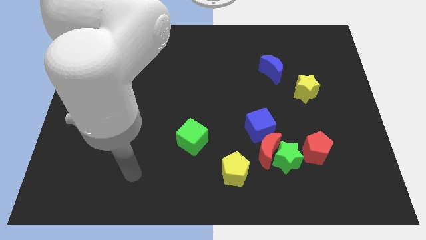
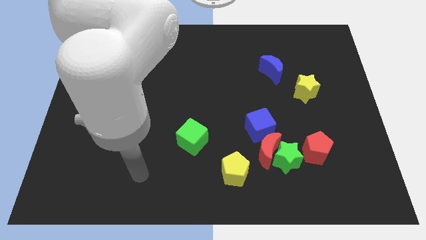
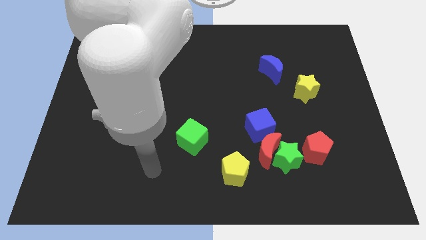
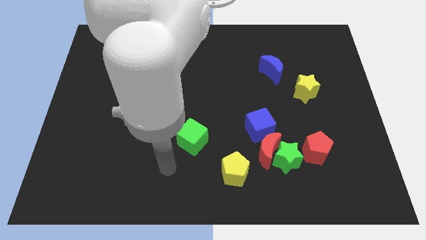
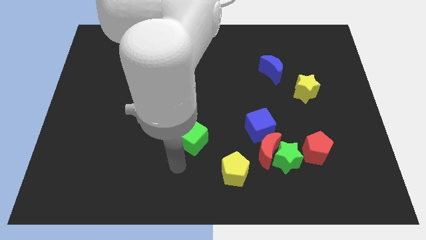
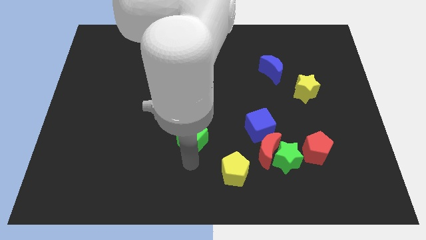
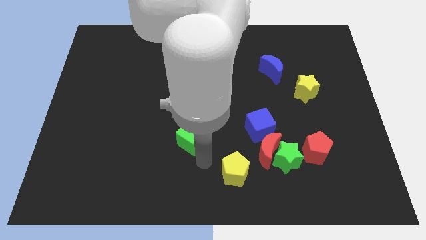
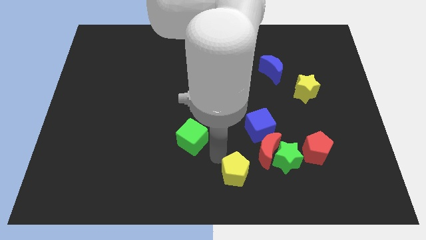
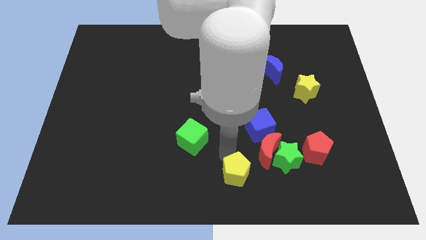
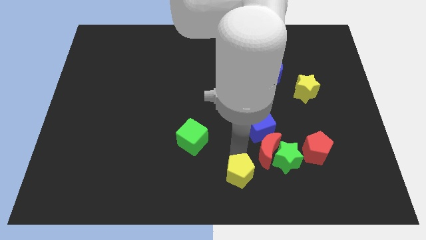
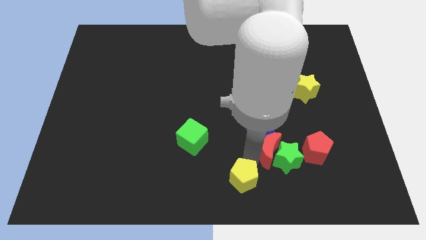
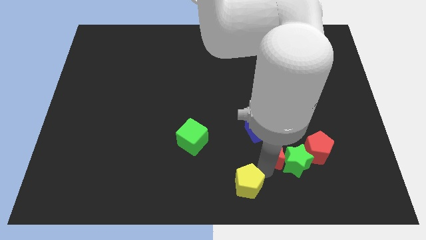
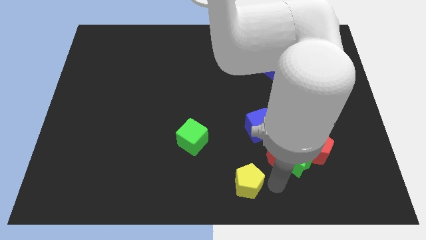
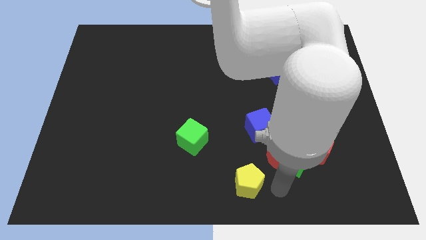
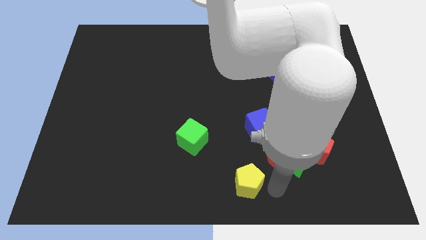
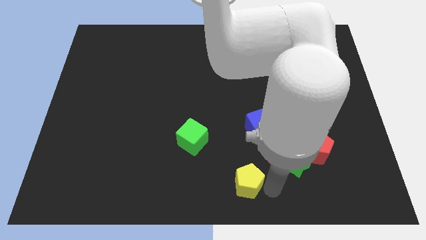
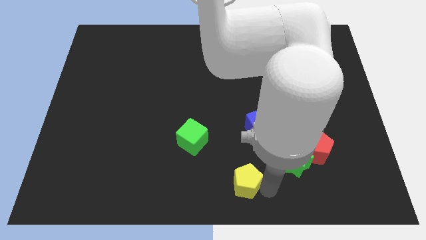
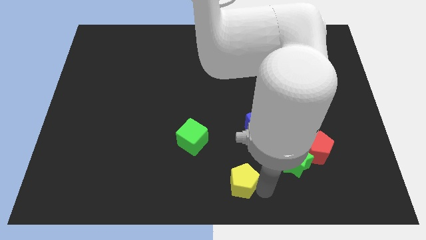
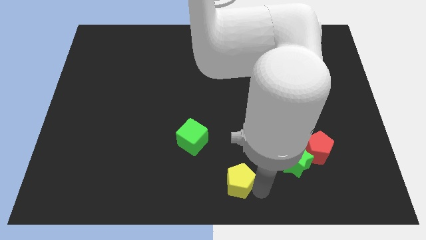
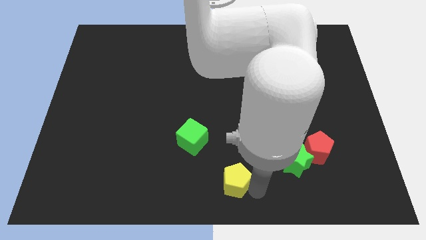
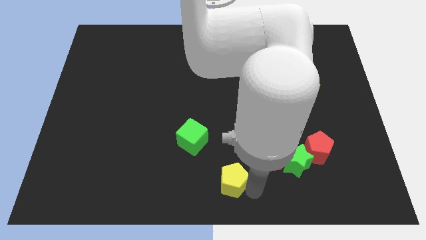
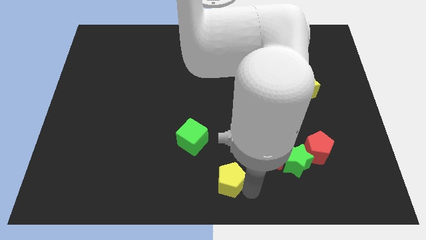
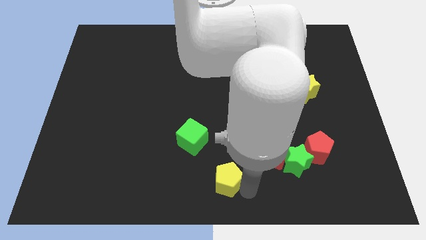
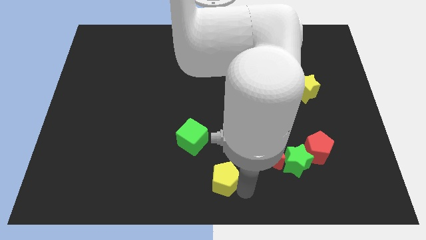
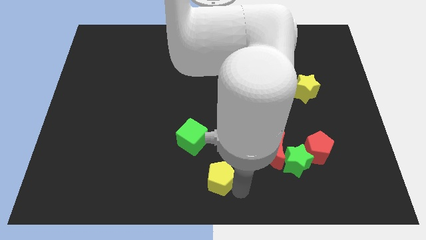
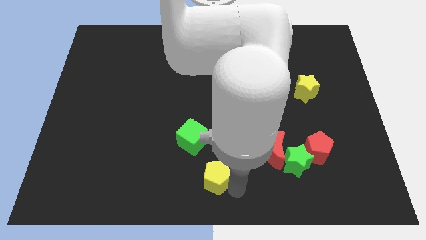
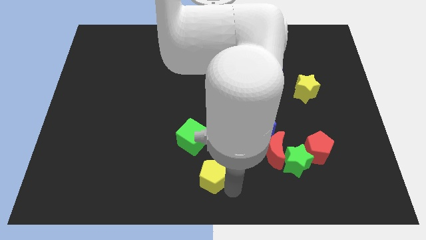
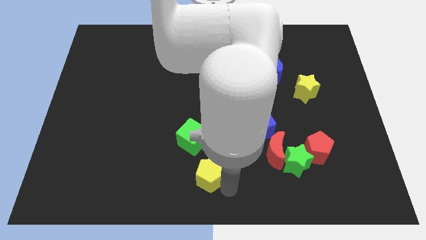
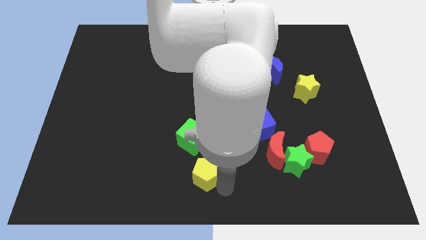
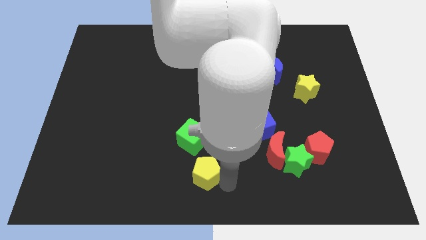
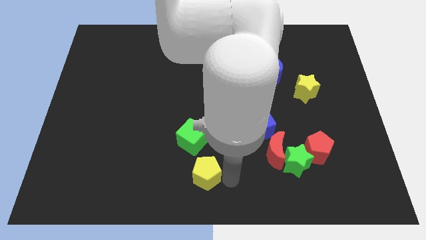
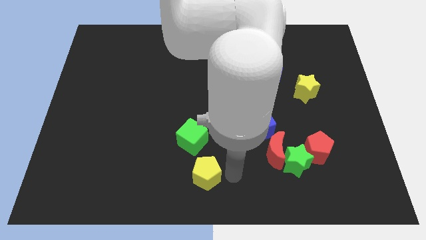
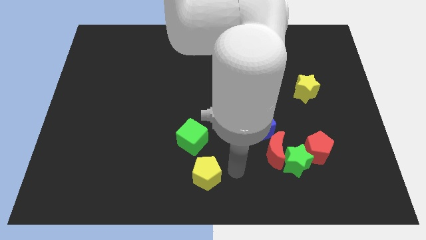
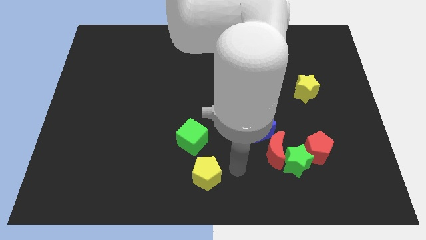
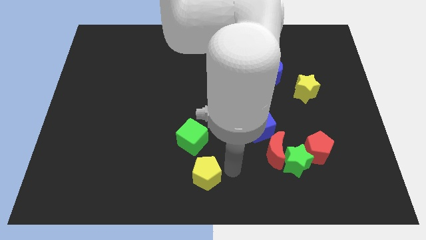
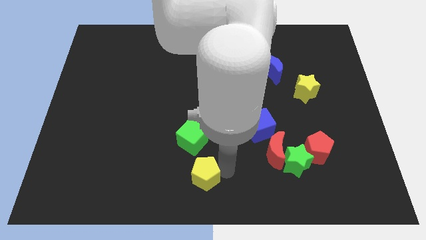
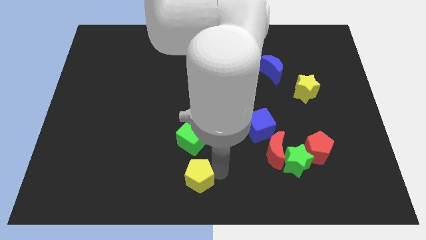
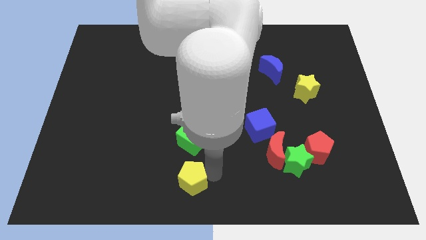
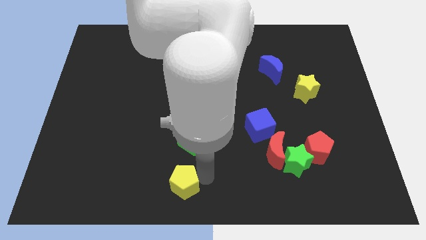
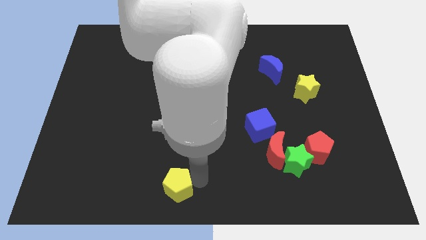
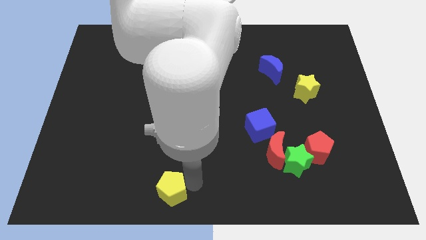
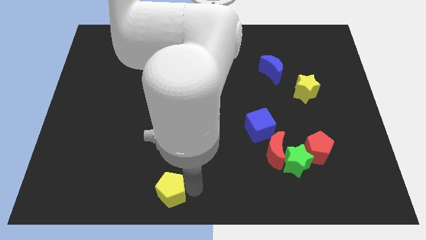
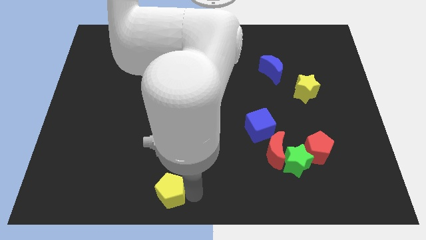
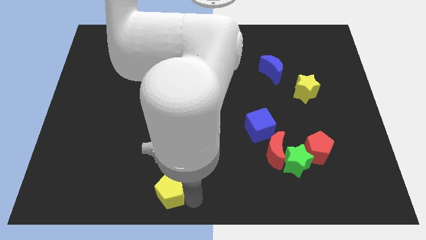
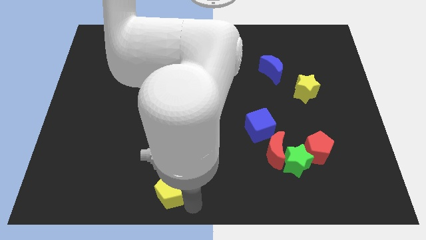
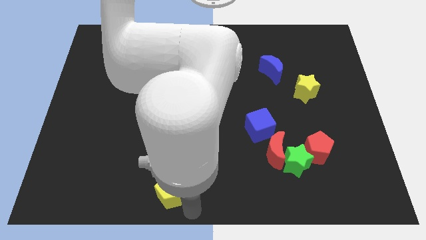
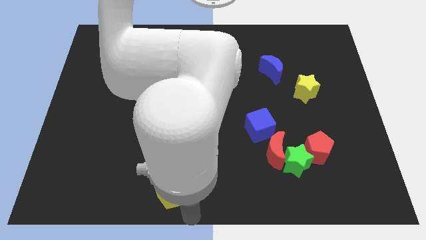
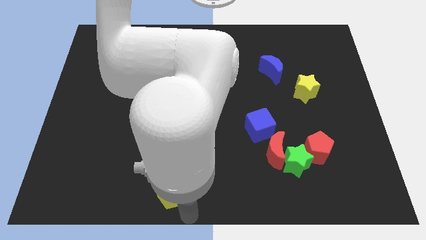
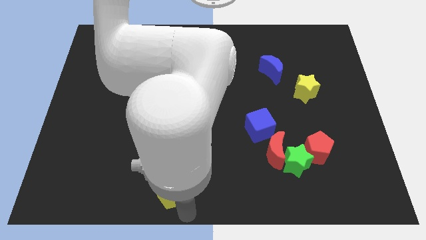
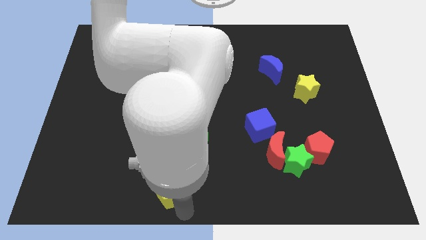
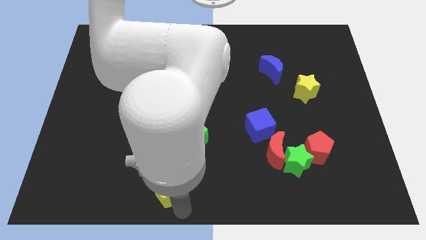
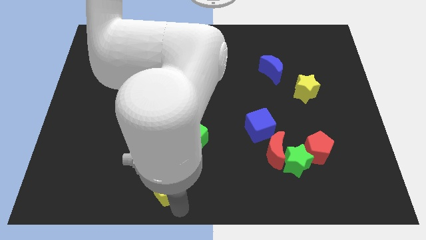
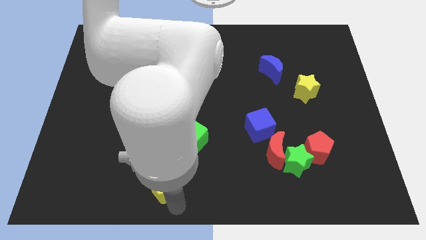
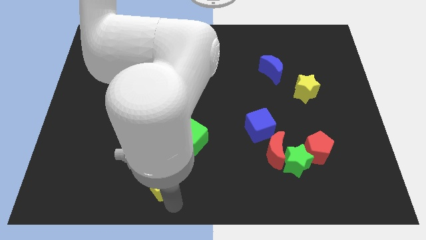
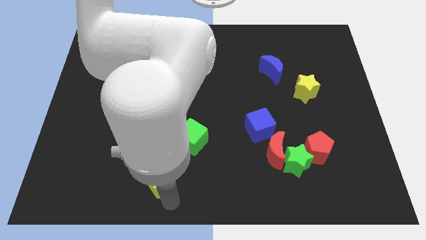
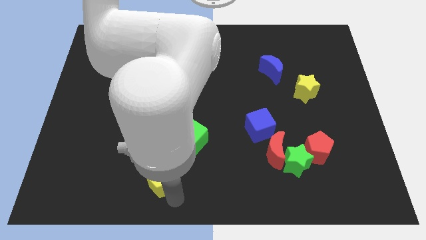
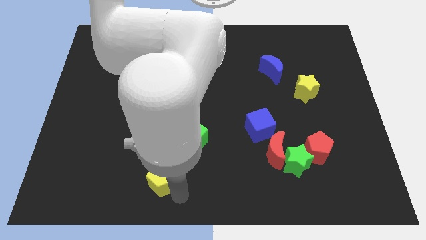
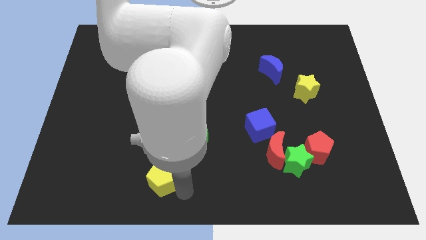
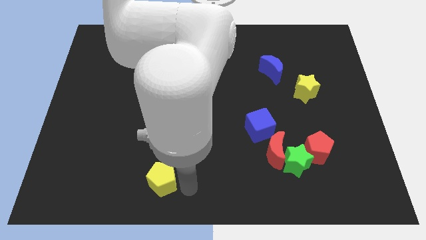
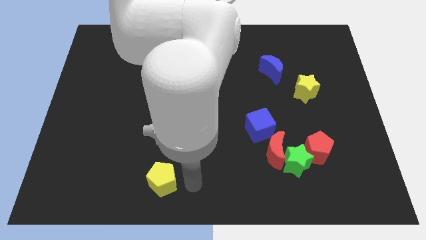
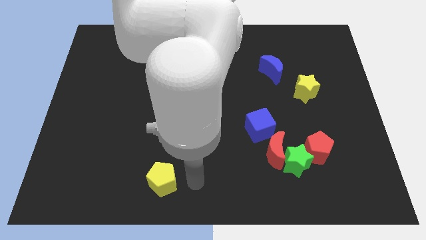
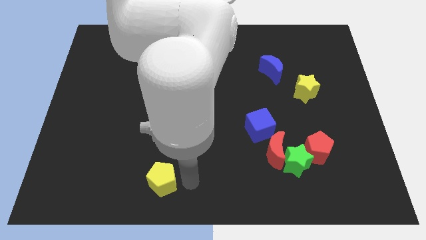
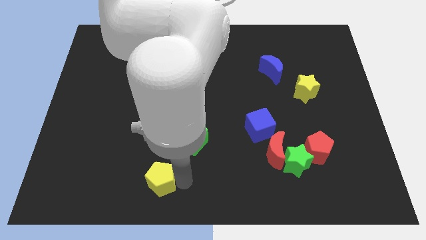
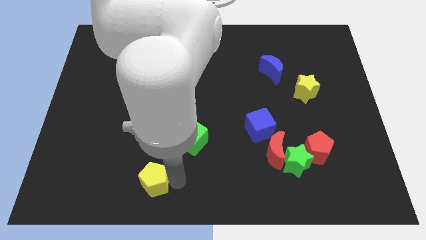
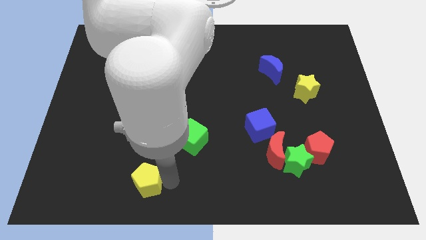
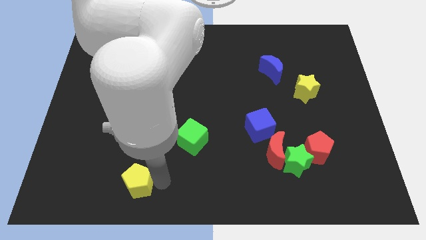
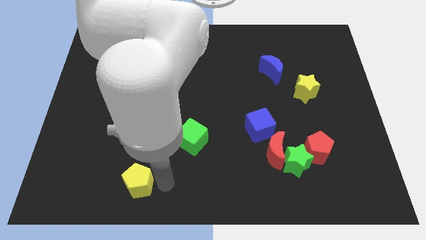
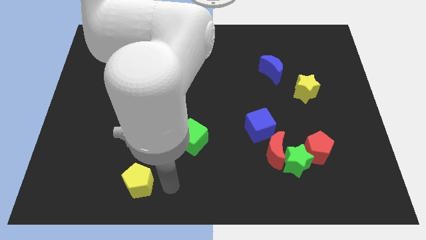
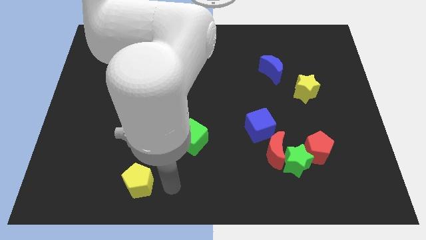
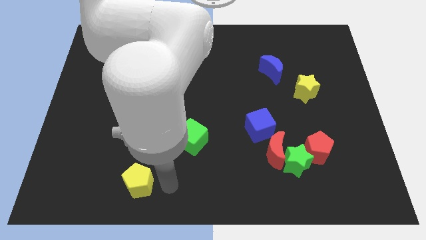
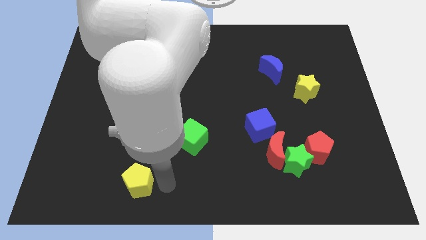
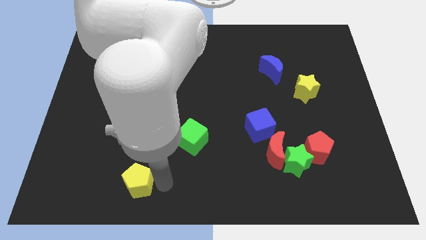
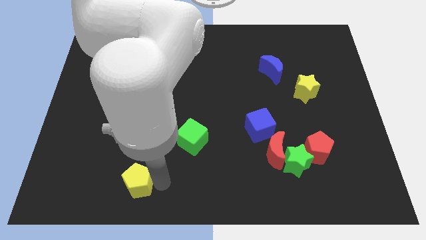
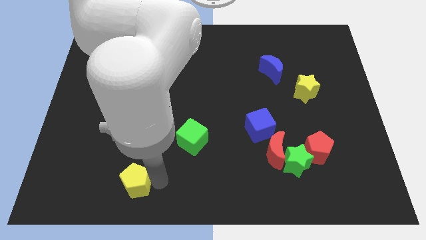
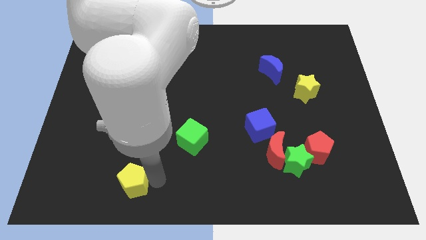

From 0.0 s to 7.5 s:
move the yellow pentagon to the left

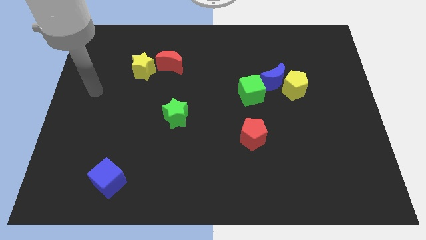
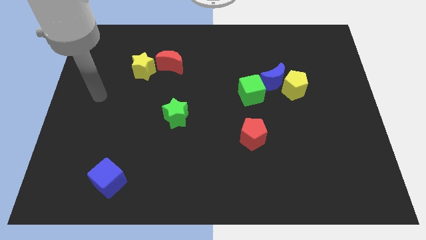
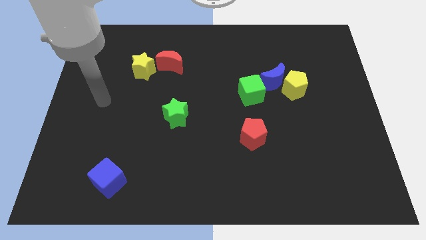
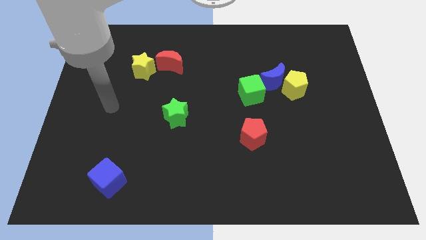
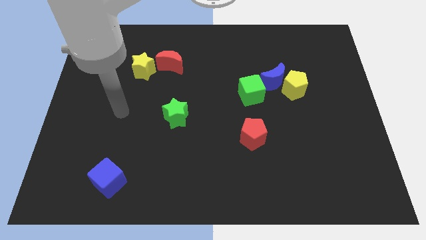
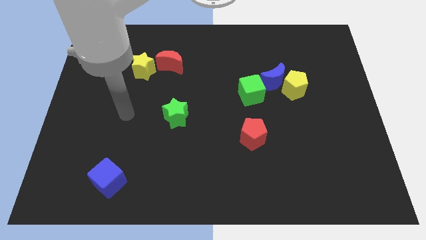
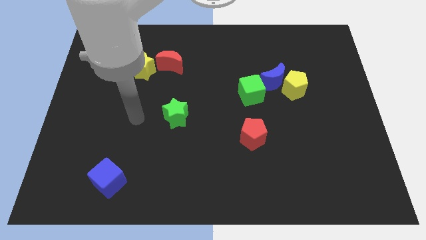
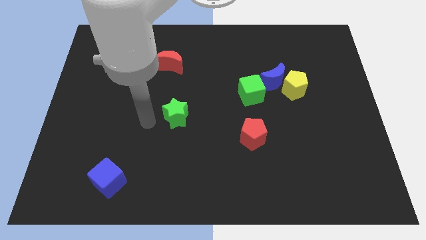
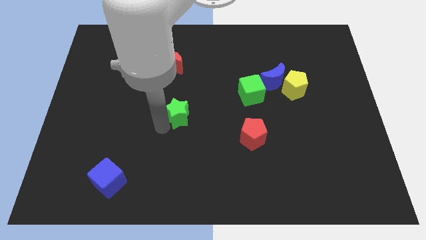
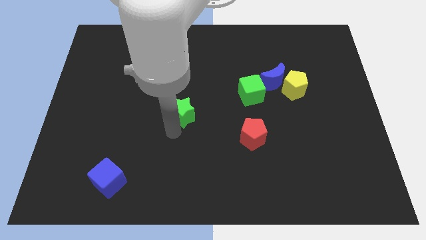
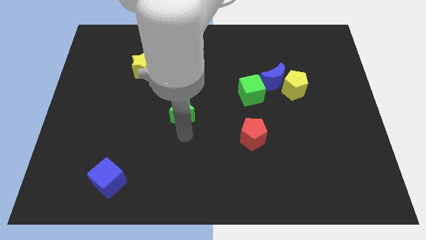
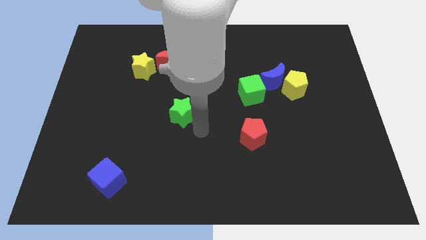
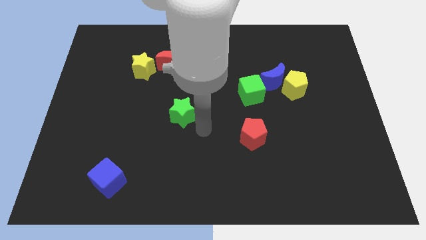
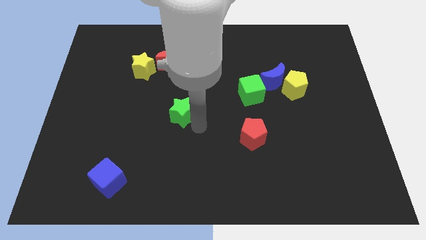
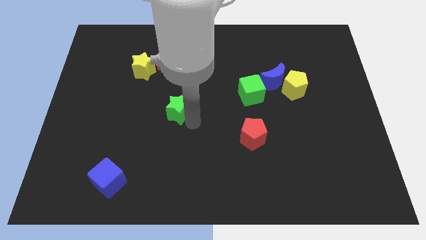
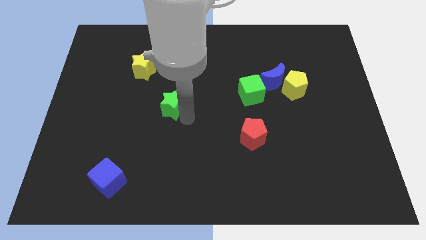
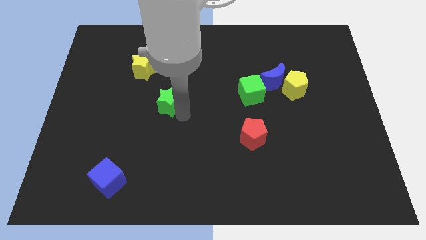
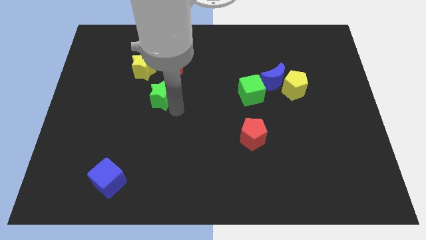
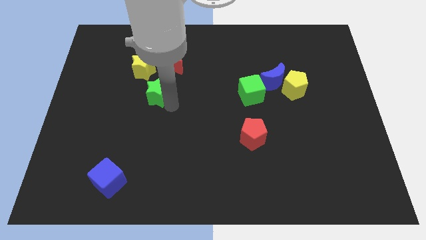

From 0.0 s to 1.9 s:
move the green star a bit upwards and then to the left
